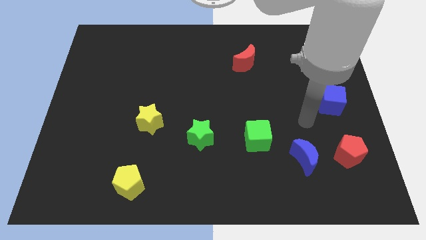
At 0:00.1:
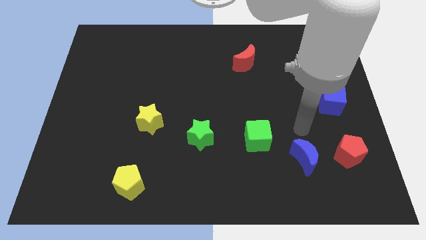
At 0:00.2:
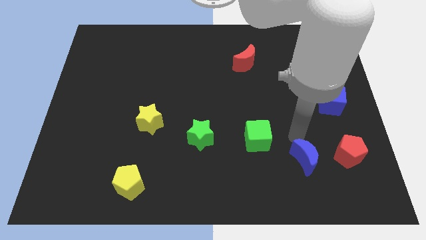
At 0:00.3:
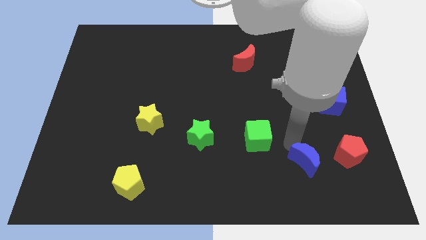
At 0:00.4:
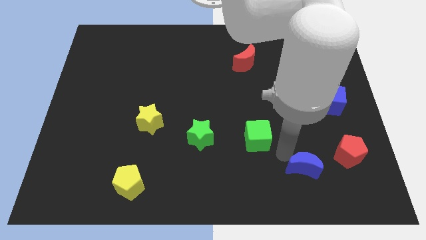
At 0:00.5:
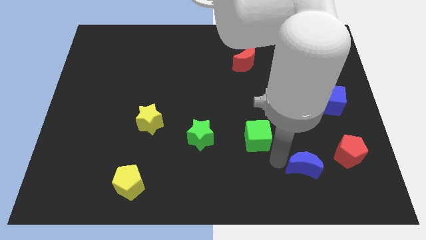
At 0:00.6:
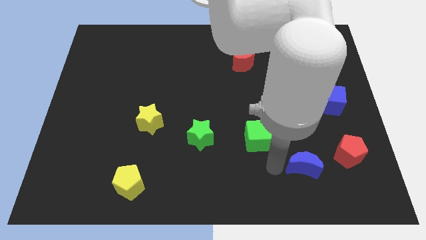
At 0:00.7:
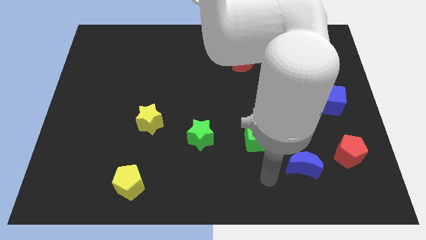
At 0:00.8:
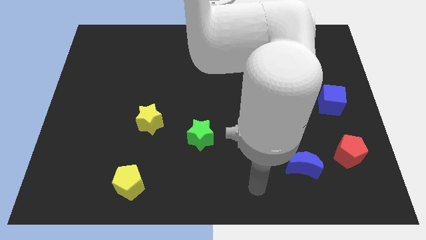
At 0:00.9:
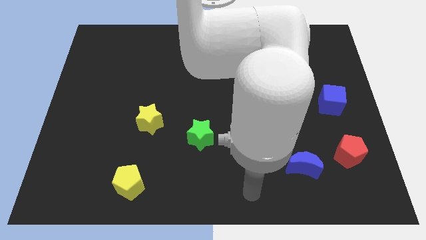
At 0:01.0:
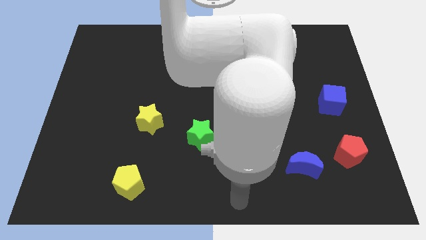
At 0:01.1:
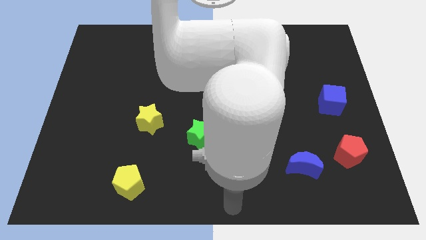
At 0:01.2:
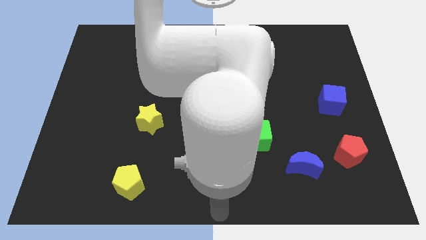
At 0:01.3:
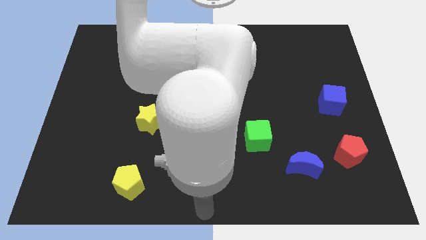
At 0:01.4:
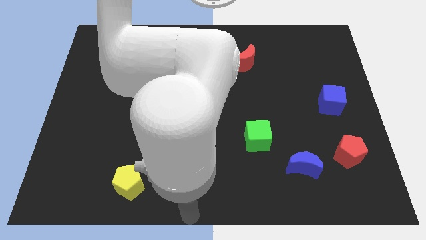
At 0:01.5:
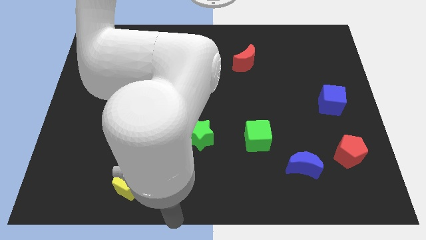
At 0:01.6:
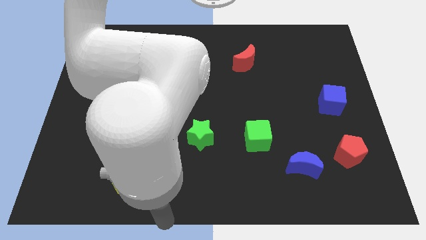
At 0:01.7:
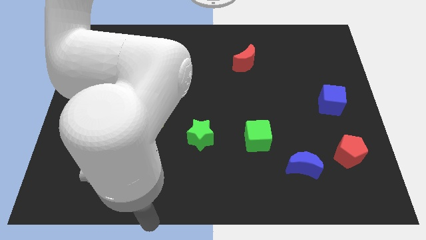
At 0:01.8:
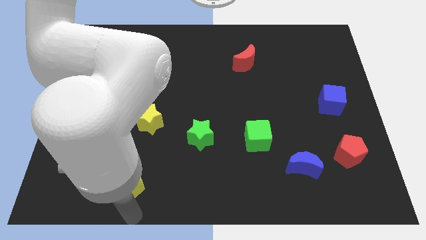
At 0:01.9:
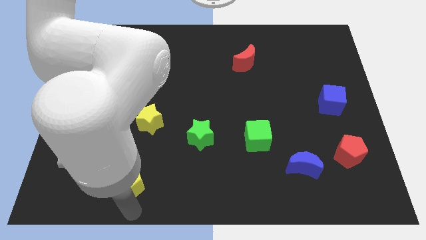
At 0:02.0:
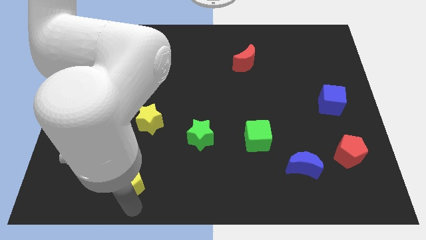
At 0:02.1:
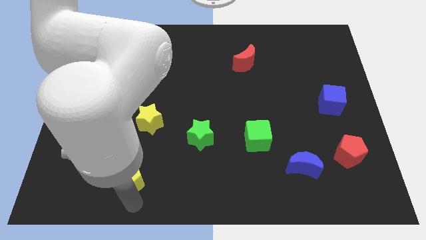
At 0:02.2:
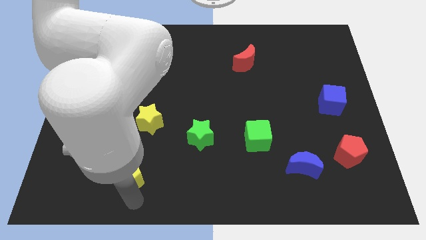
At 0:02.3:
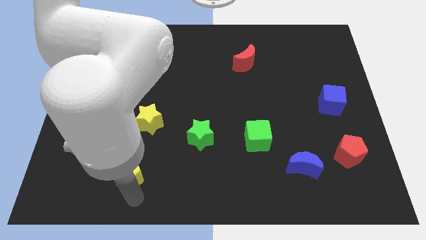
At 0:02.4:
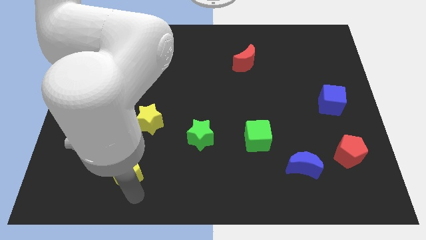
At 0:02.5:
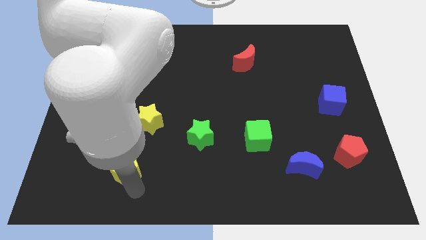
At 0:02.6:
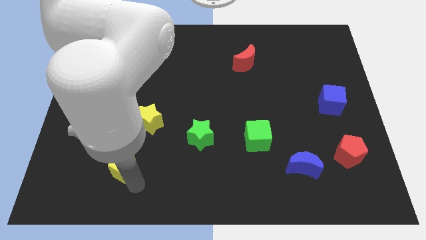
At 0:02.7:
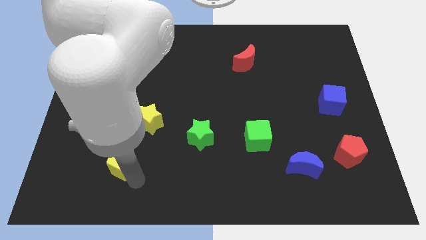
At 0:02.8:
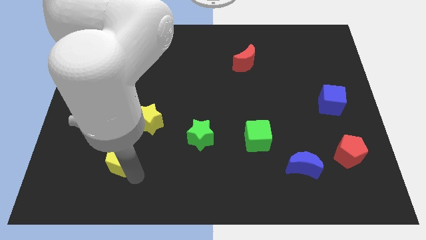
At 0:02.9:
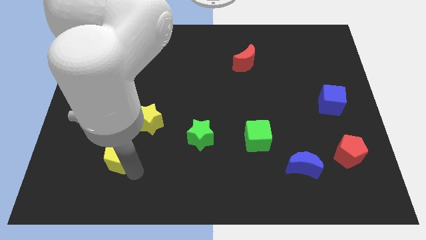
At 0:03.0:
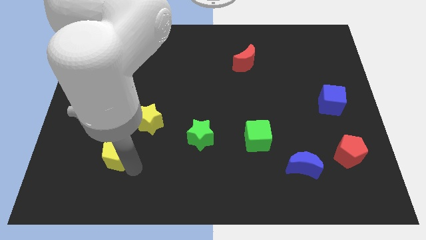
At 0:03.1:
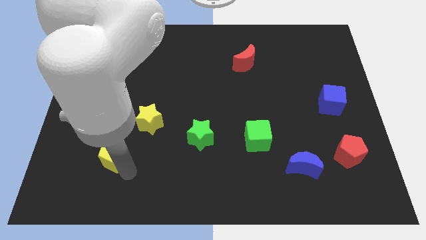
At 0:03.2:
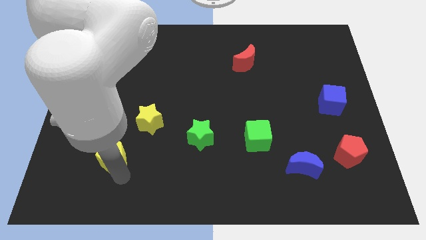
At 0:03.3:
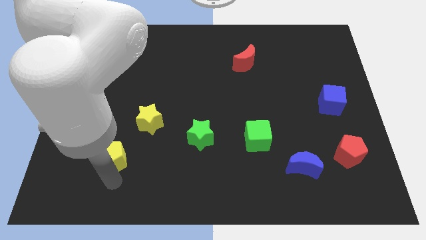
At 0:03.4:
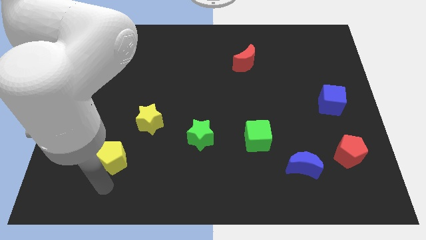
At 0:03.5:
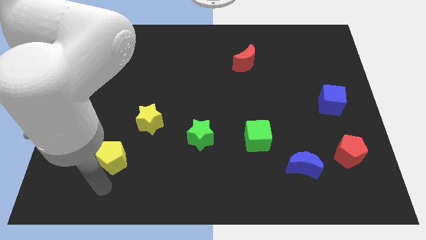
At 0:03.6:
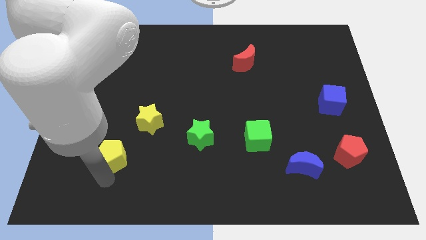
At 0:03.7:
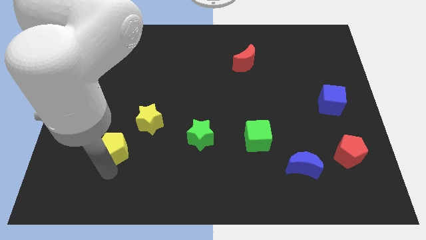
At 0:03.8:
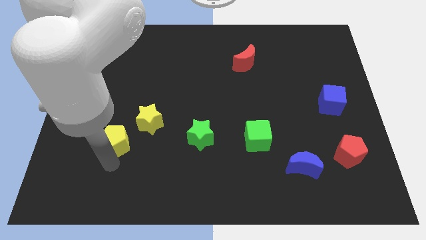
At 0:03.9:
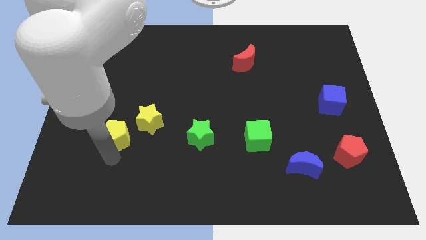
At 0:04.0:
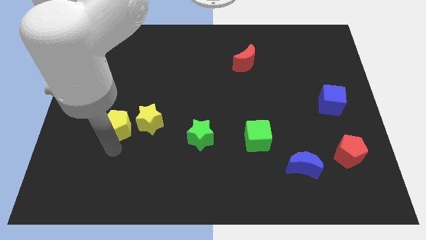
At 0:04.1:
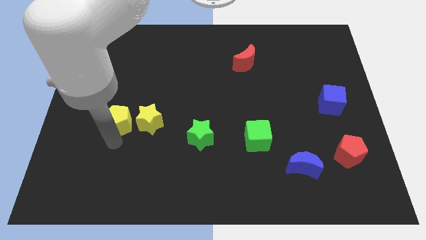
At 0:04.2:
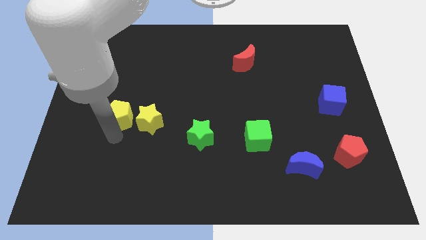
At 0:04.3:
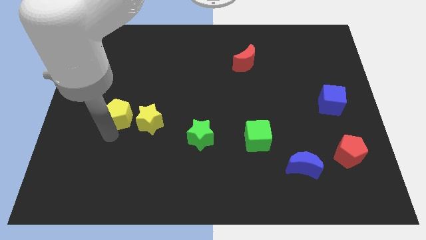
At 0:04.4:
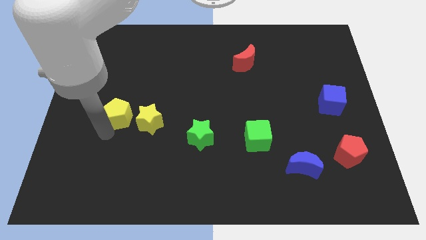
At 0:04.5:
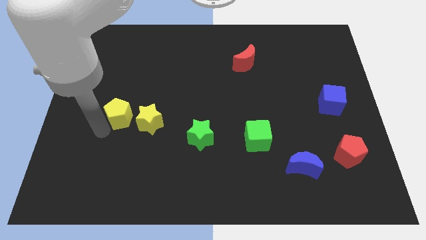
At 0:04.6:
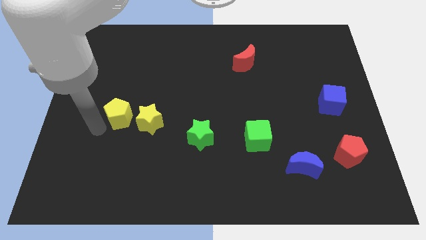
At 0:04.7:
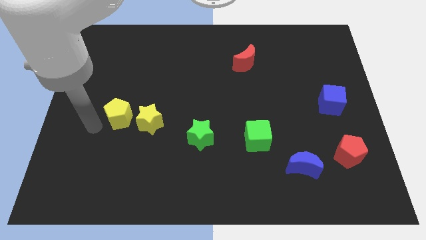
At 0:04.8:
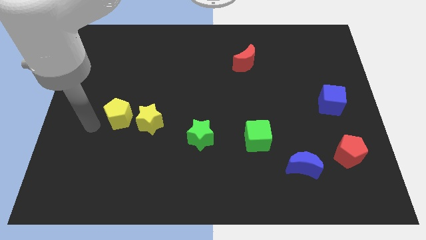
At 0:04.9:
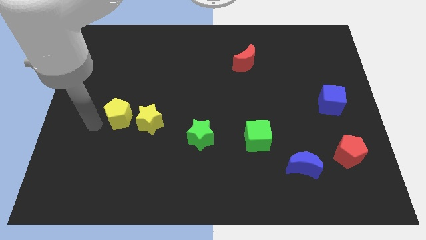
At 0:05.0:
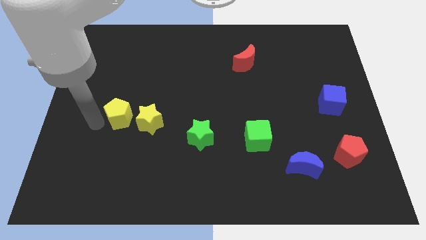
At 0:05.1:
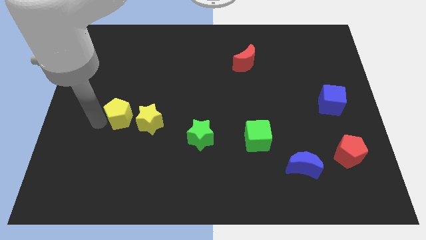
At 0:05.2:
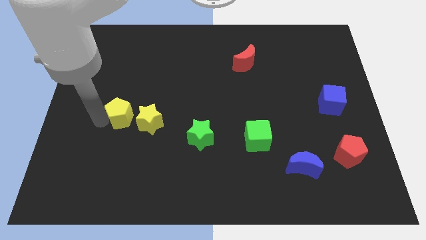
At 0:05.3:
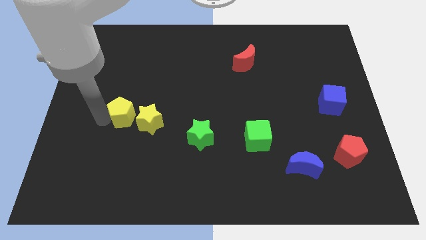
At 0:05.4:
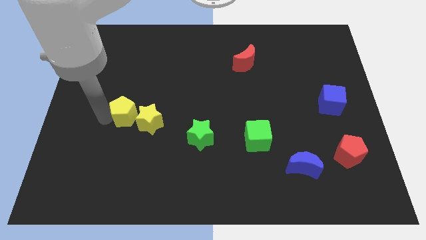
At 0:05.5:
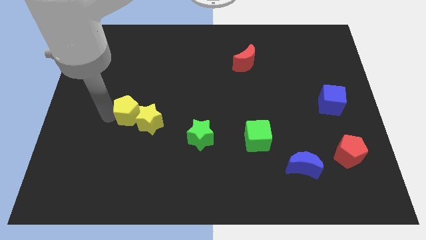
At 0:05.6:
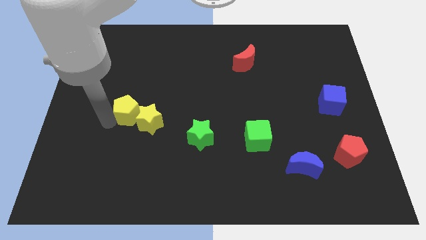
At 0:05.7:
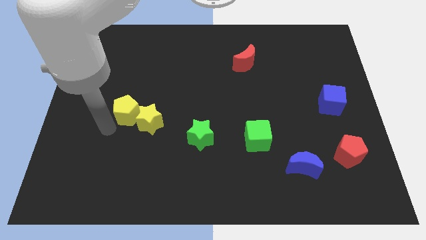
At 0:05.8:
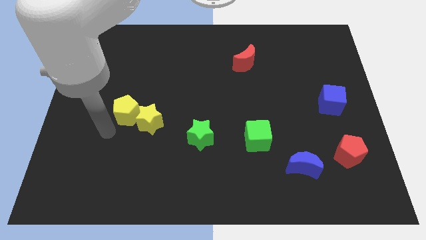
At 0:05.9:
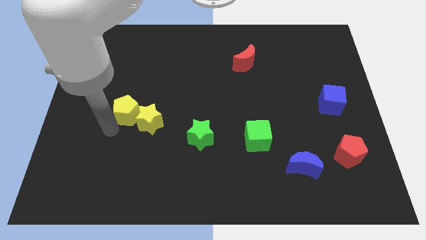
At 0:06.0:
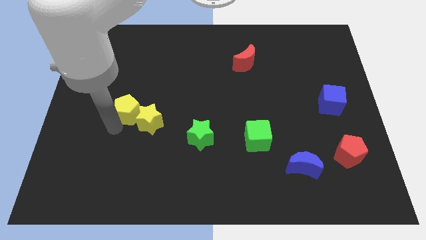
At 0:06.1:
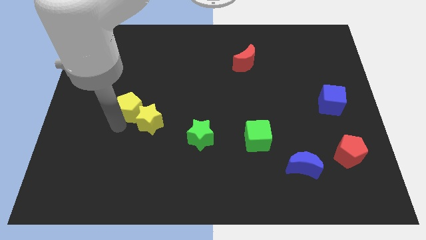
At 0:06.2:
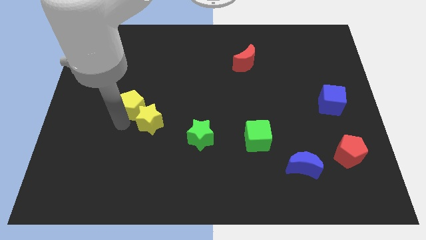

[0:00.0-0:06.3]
slide the yellow pentagon to the top of the yellow star

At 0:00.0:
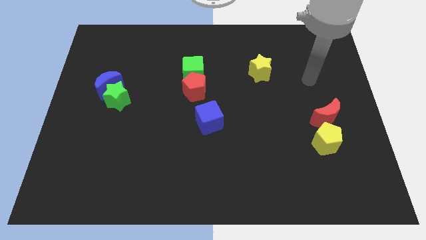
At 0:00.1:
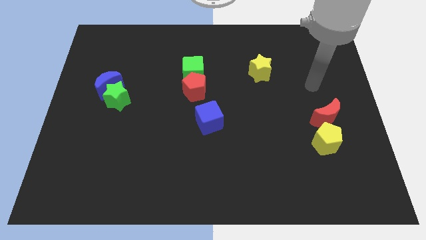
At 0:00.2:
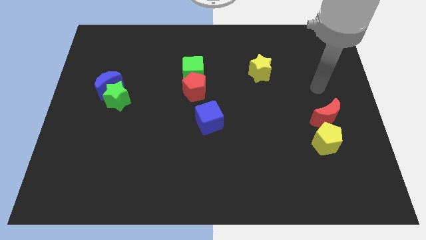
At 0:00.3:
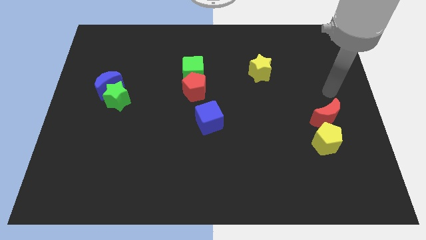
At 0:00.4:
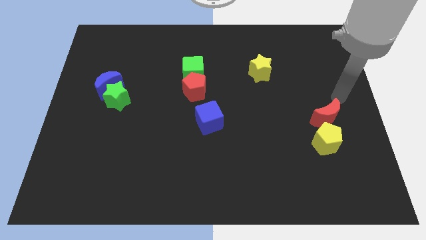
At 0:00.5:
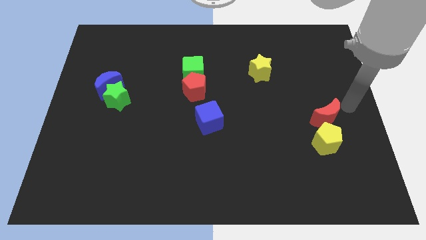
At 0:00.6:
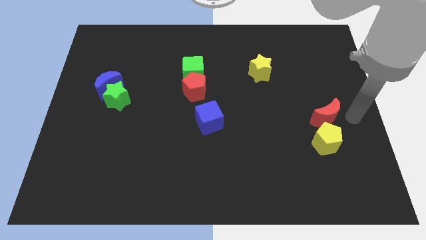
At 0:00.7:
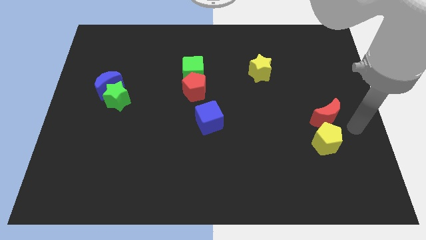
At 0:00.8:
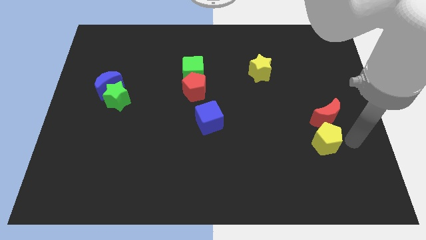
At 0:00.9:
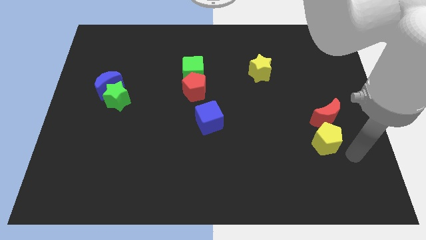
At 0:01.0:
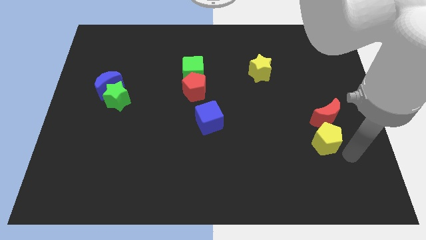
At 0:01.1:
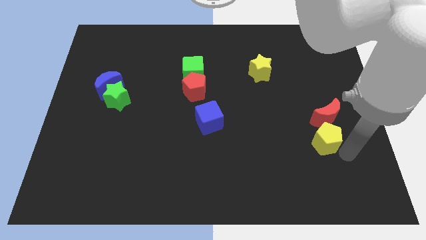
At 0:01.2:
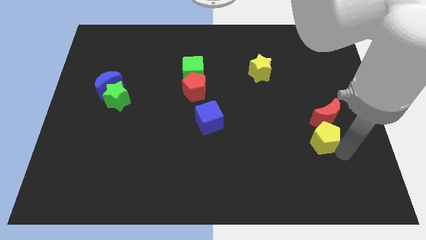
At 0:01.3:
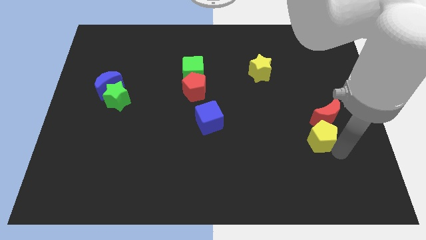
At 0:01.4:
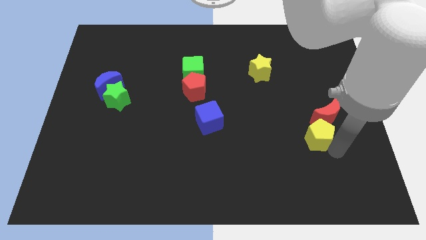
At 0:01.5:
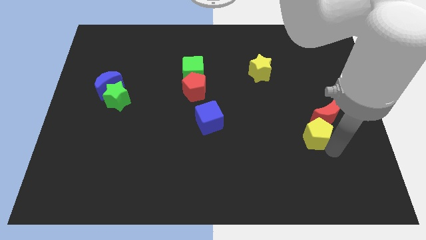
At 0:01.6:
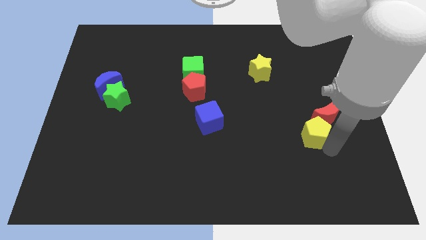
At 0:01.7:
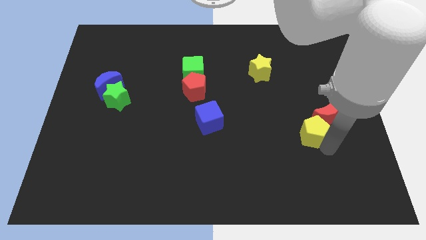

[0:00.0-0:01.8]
push the yellow pentagon to the left of the red moon
